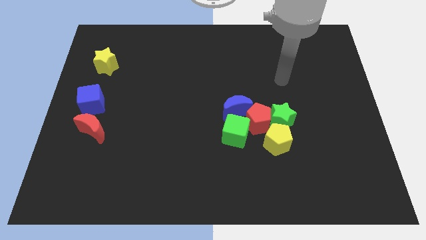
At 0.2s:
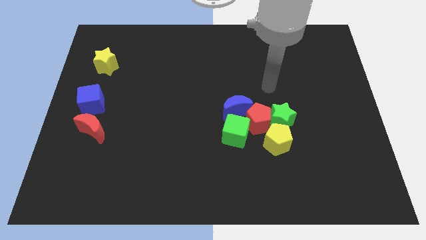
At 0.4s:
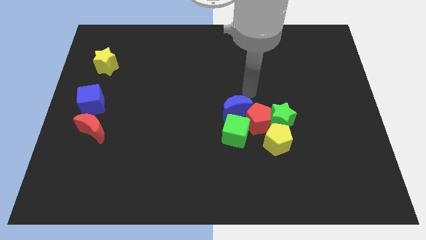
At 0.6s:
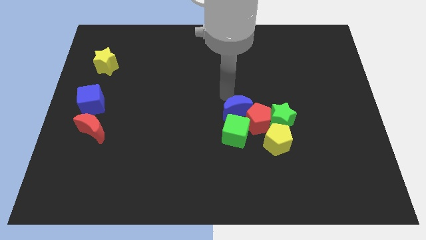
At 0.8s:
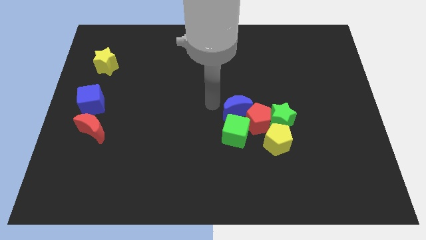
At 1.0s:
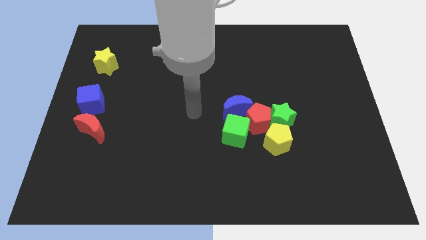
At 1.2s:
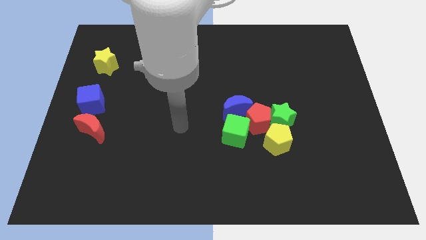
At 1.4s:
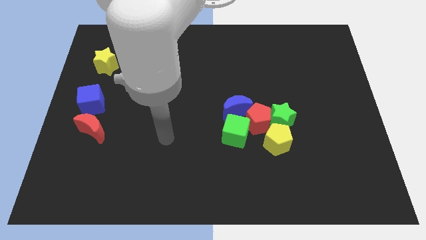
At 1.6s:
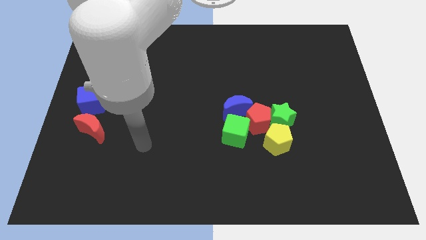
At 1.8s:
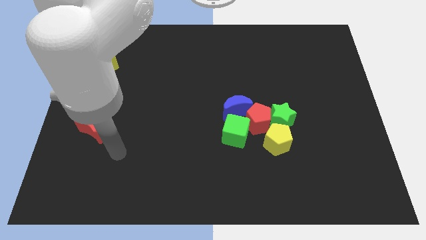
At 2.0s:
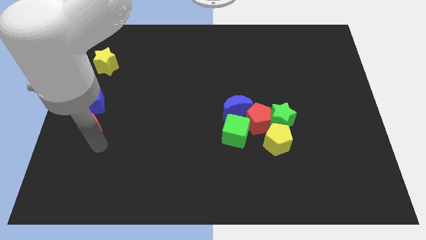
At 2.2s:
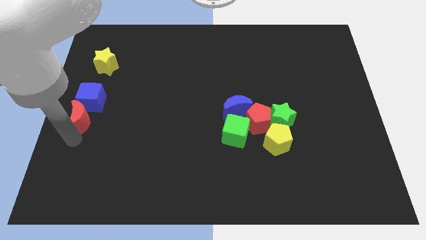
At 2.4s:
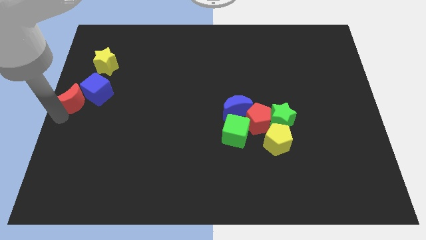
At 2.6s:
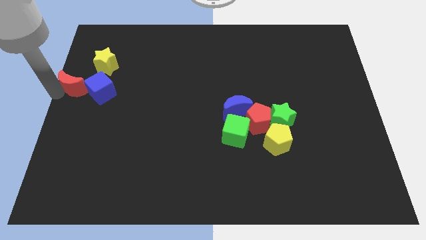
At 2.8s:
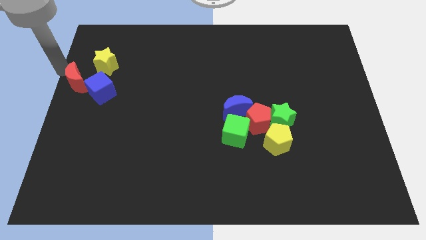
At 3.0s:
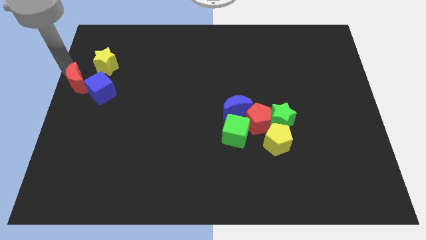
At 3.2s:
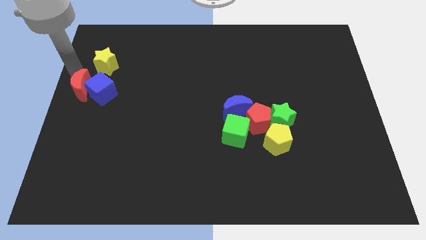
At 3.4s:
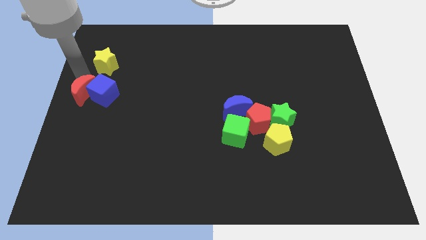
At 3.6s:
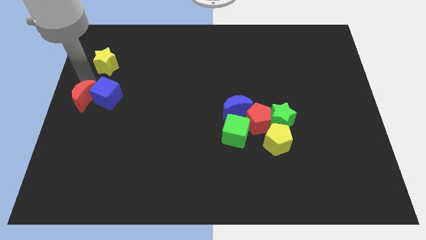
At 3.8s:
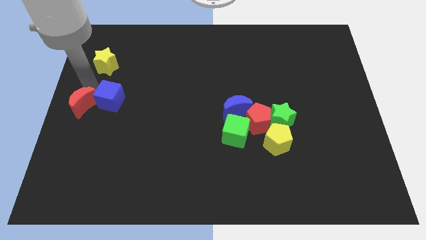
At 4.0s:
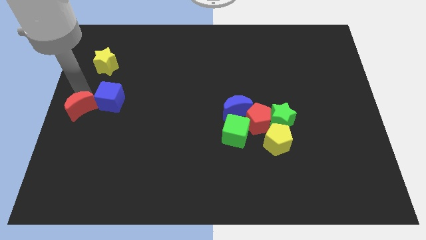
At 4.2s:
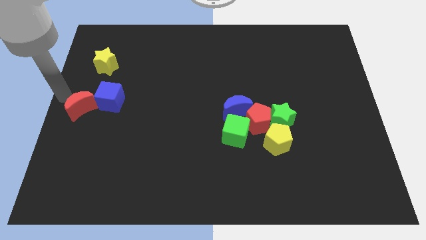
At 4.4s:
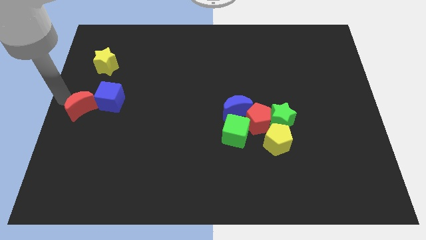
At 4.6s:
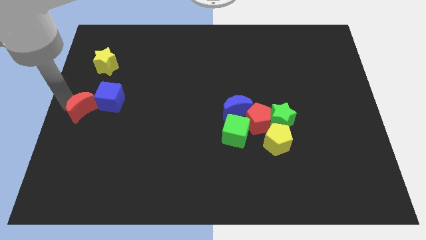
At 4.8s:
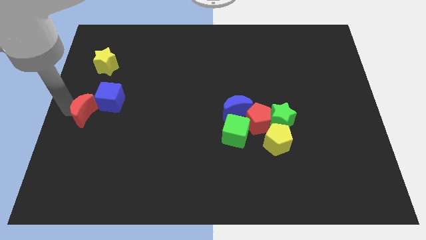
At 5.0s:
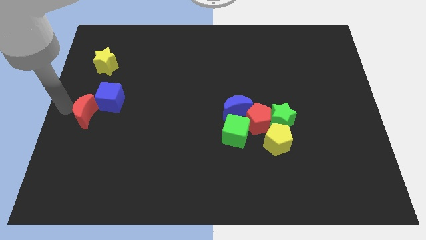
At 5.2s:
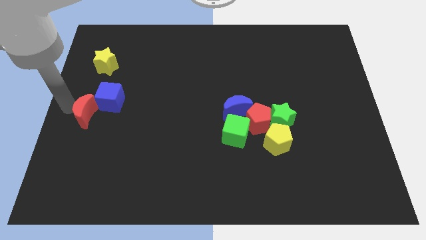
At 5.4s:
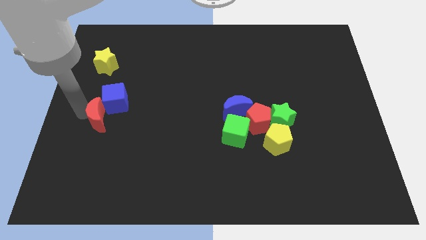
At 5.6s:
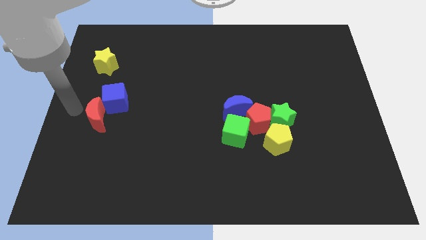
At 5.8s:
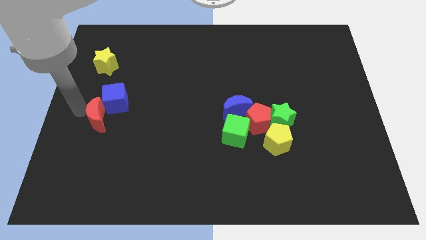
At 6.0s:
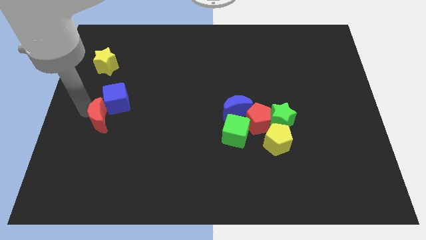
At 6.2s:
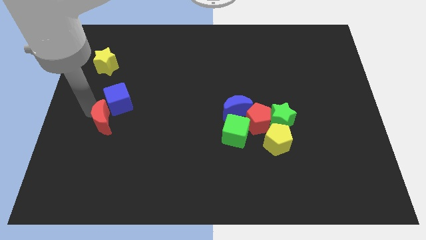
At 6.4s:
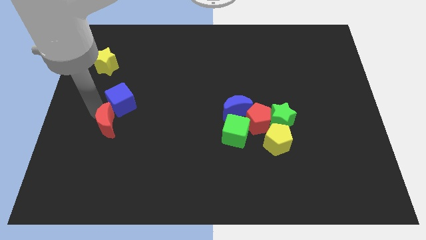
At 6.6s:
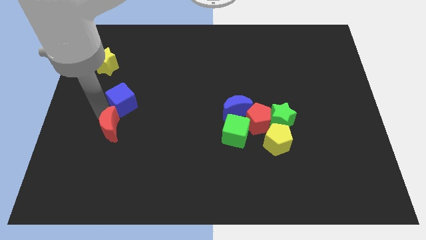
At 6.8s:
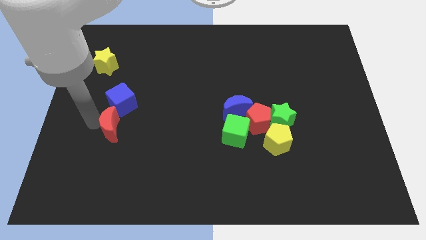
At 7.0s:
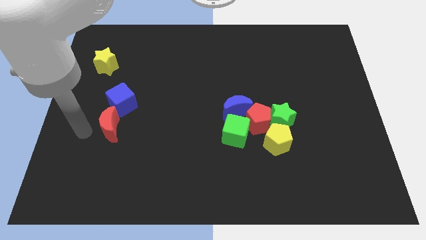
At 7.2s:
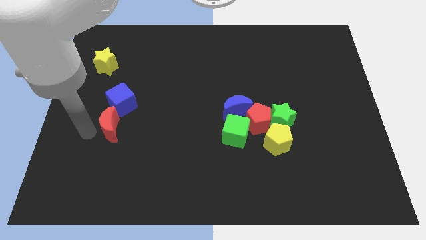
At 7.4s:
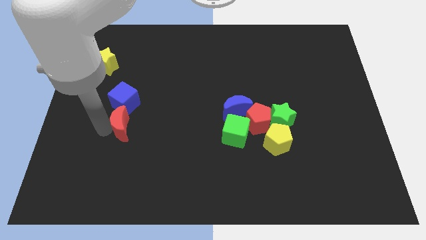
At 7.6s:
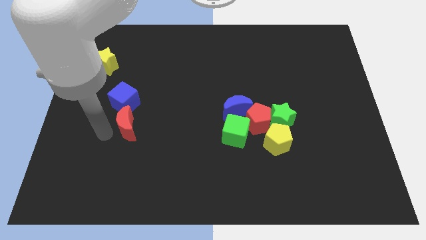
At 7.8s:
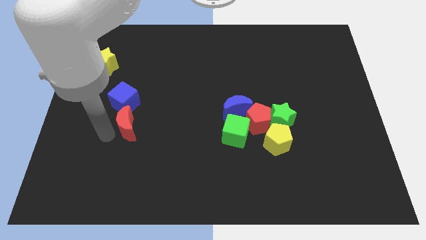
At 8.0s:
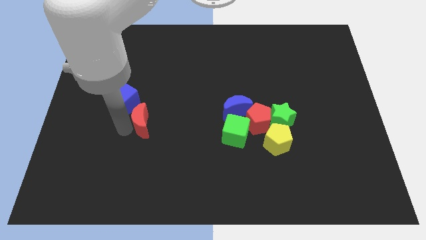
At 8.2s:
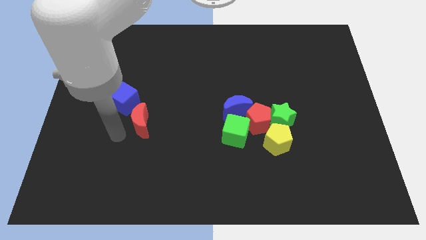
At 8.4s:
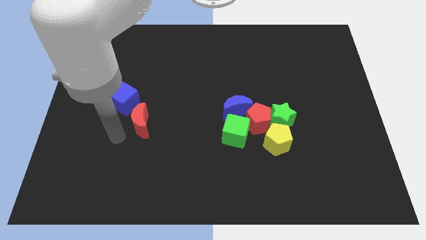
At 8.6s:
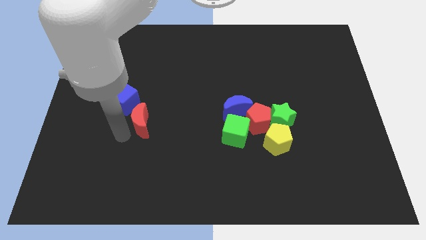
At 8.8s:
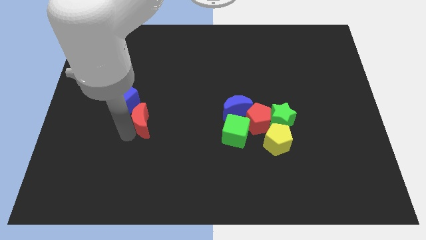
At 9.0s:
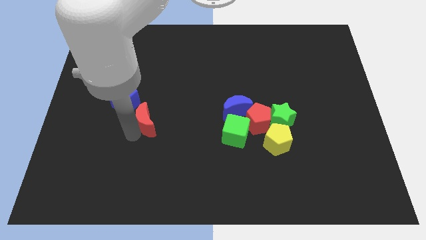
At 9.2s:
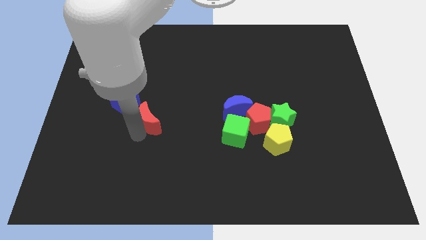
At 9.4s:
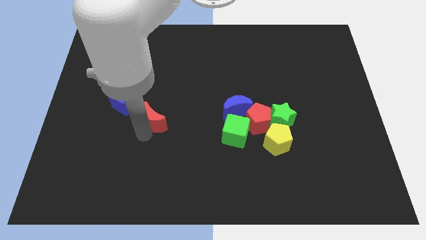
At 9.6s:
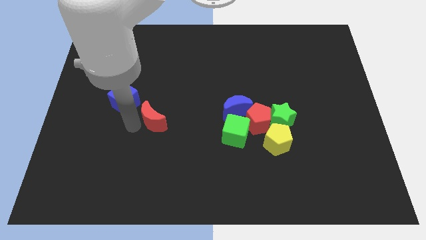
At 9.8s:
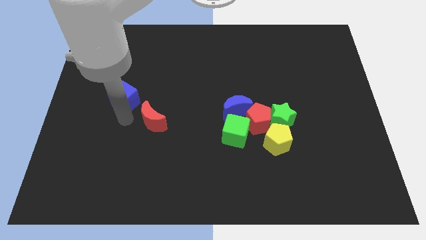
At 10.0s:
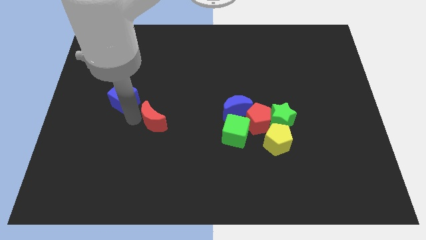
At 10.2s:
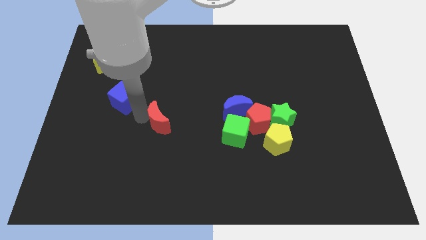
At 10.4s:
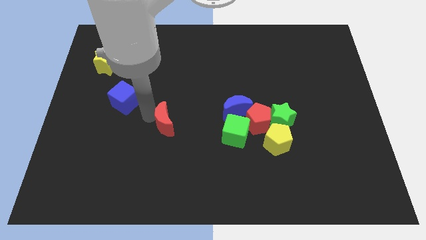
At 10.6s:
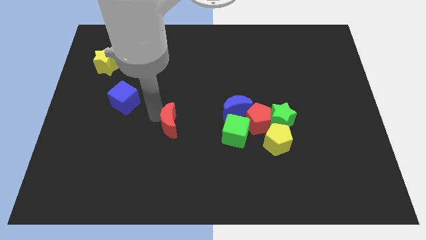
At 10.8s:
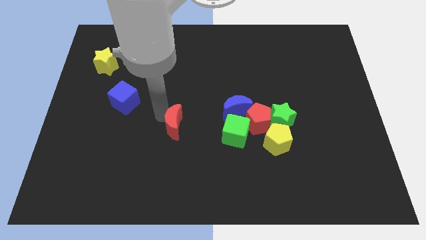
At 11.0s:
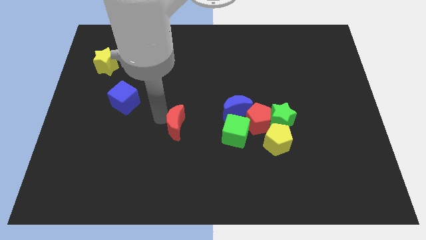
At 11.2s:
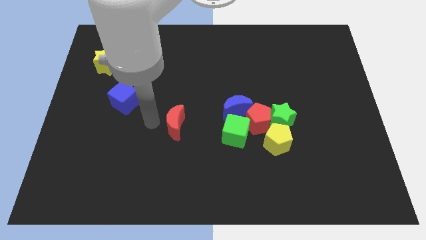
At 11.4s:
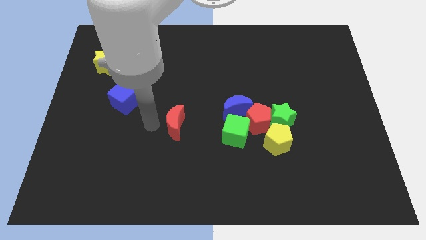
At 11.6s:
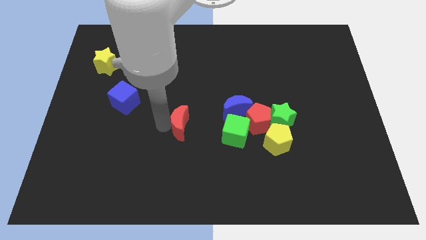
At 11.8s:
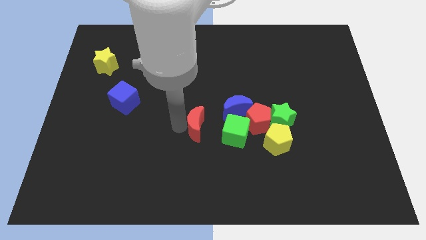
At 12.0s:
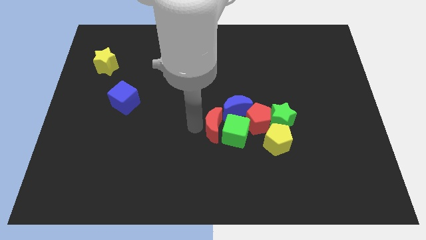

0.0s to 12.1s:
push the red moon next to the green cube

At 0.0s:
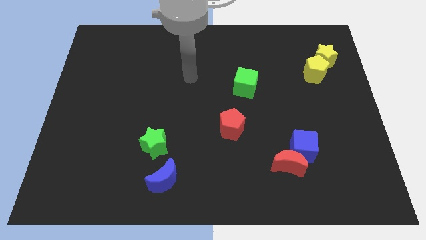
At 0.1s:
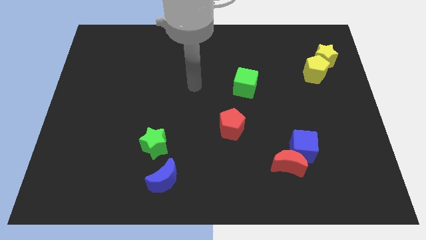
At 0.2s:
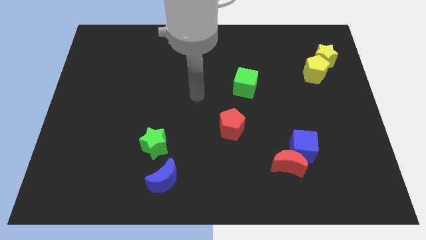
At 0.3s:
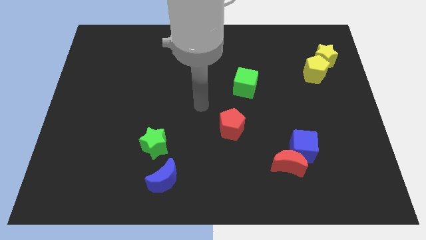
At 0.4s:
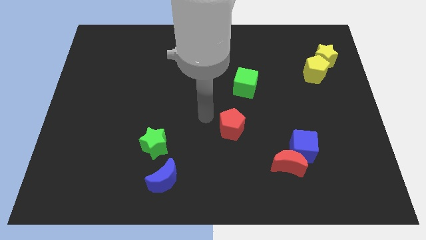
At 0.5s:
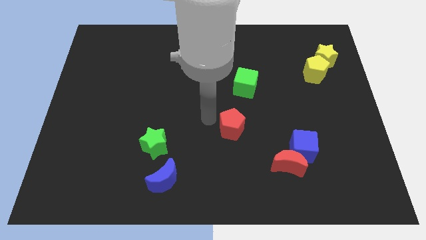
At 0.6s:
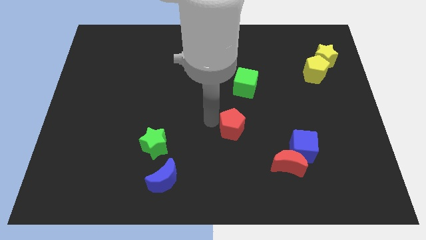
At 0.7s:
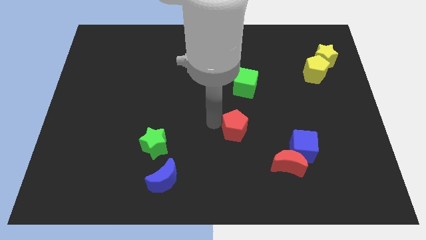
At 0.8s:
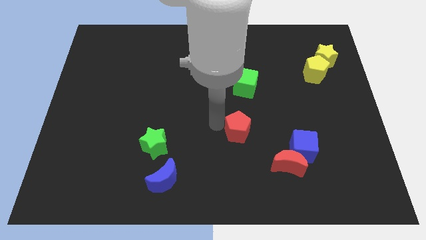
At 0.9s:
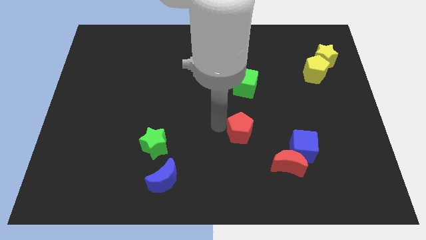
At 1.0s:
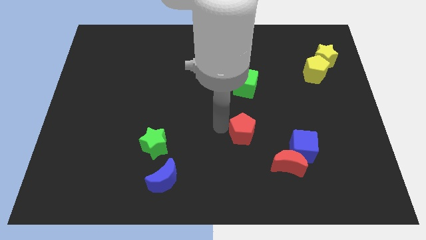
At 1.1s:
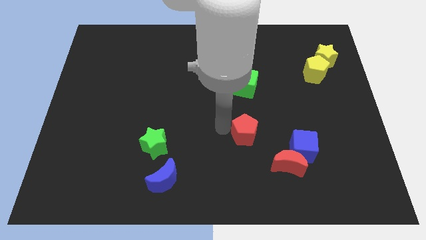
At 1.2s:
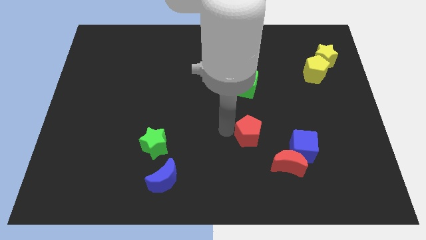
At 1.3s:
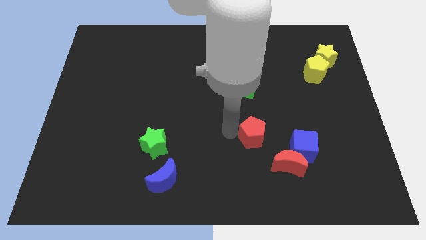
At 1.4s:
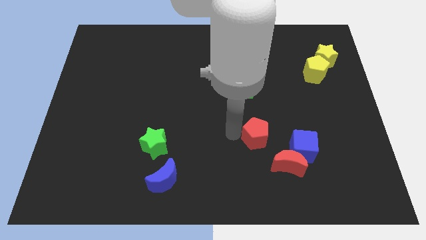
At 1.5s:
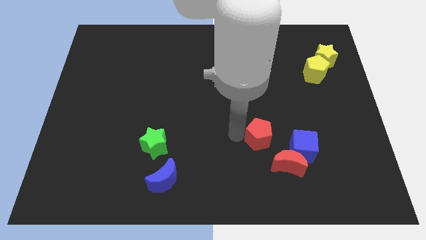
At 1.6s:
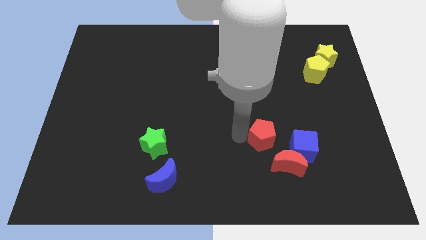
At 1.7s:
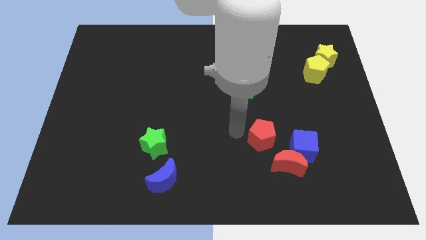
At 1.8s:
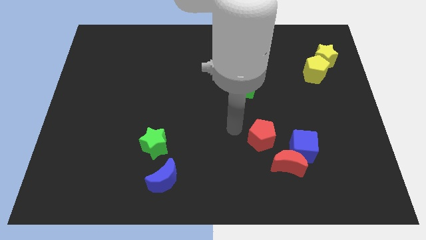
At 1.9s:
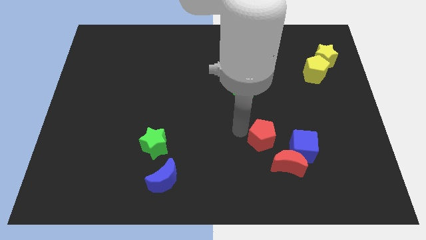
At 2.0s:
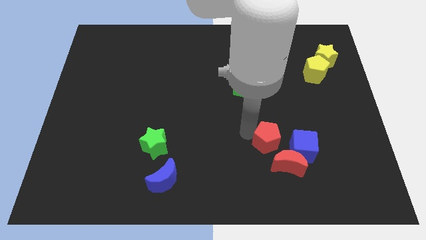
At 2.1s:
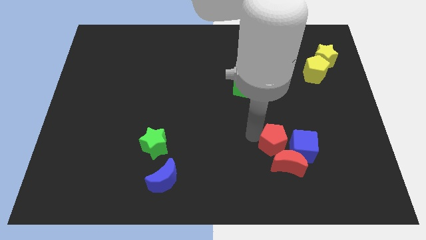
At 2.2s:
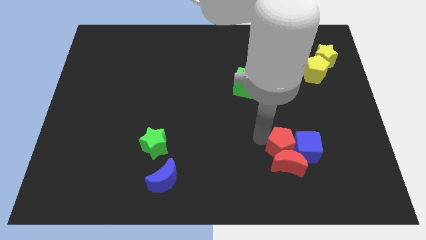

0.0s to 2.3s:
push the red pentagon to the blue cube
